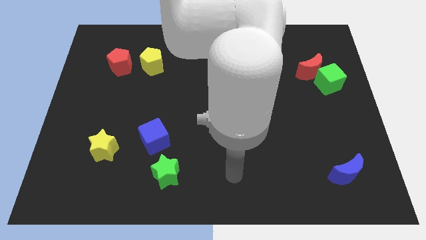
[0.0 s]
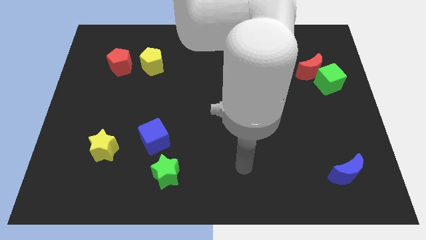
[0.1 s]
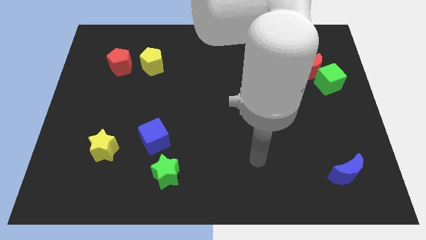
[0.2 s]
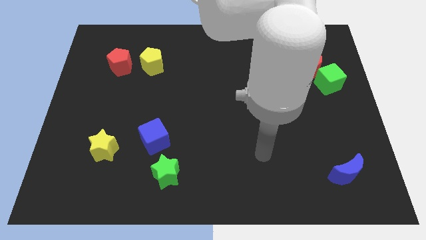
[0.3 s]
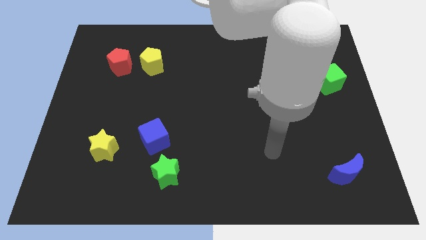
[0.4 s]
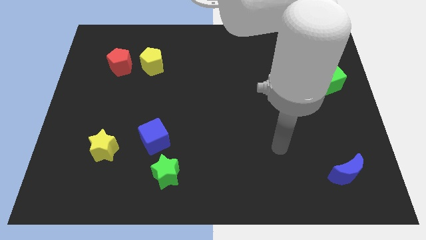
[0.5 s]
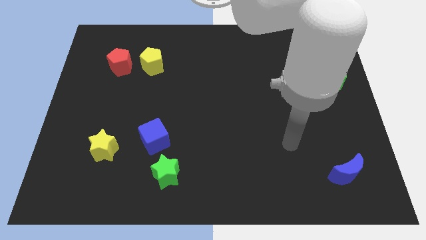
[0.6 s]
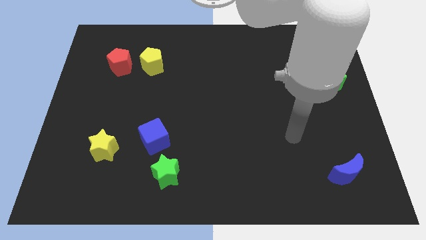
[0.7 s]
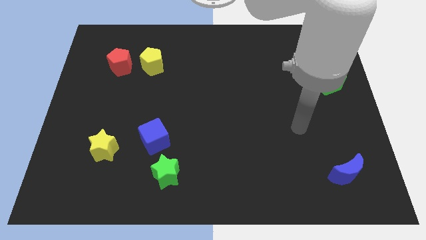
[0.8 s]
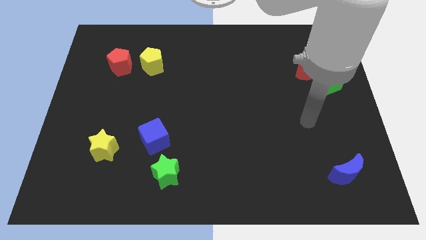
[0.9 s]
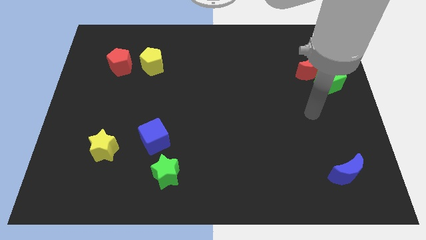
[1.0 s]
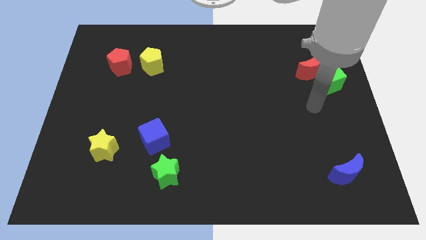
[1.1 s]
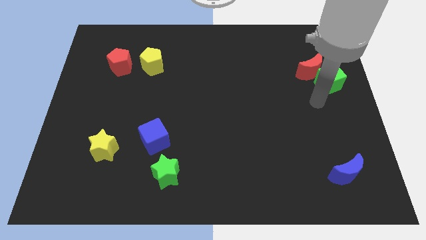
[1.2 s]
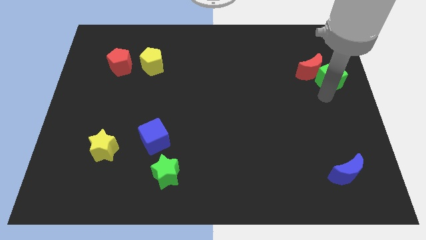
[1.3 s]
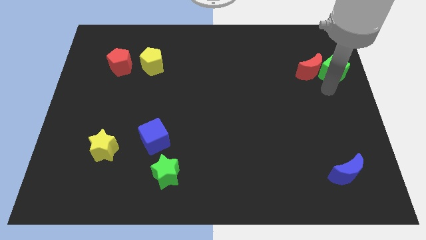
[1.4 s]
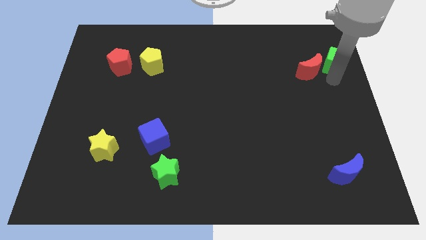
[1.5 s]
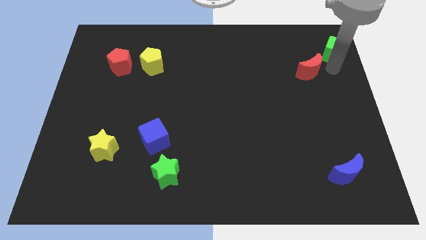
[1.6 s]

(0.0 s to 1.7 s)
pull the red moon apart from the green cube

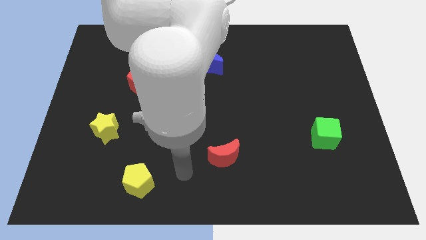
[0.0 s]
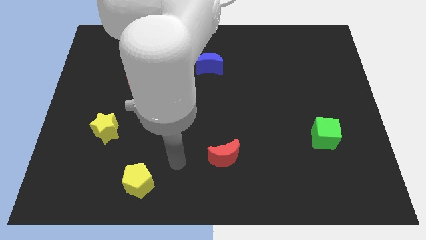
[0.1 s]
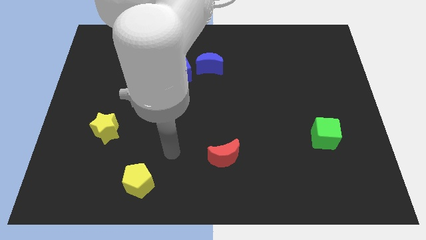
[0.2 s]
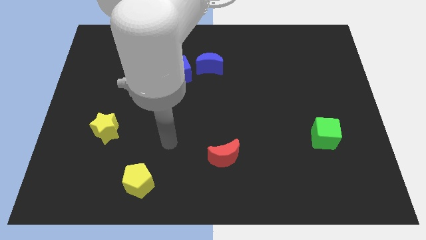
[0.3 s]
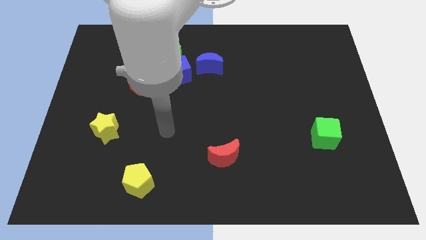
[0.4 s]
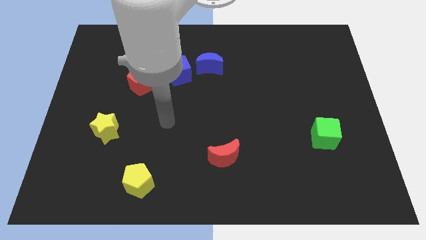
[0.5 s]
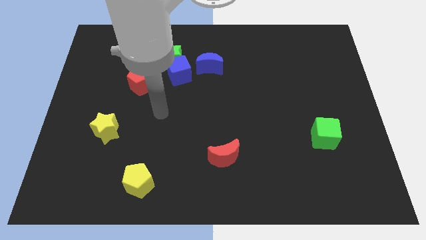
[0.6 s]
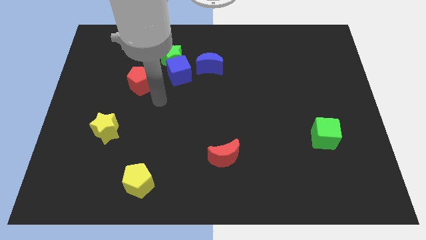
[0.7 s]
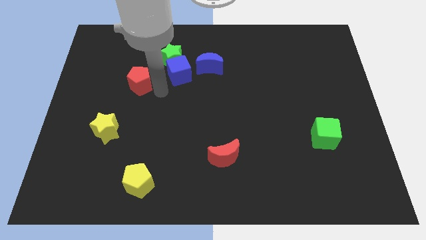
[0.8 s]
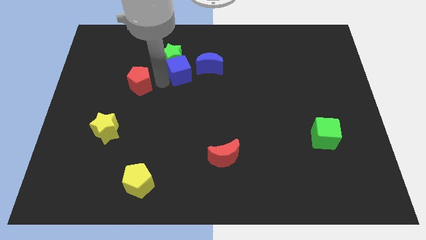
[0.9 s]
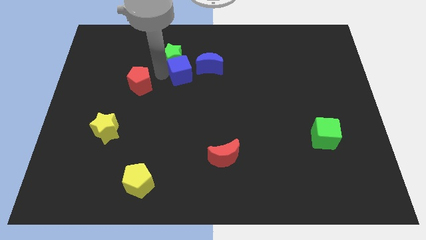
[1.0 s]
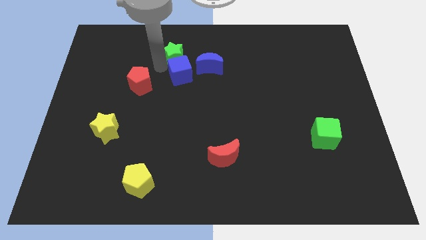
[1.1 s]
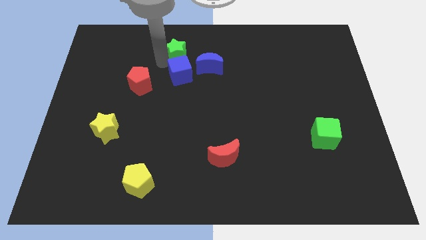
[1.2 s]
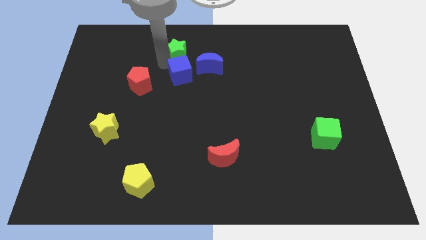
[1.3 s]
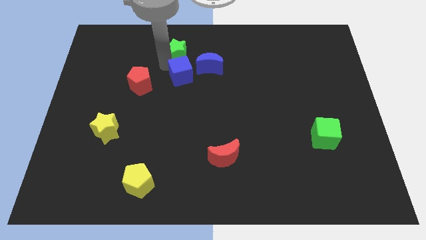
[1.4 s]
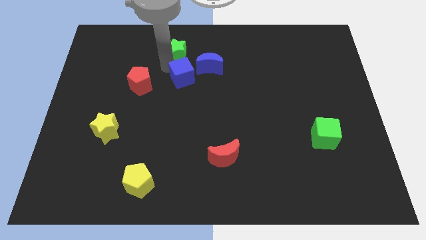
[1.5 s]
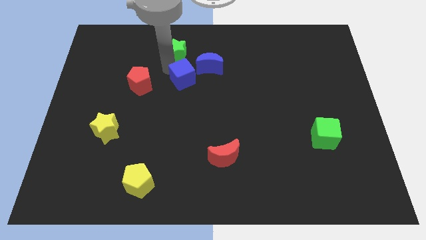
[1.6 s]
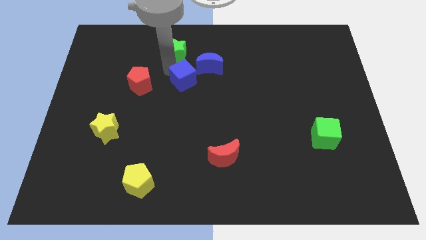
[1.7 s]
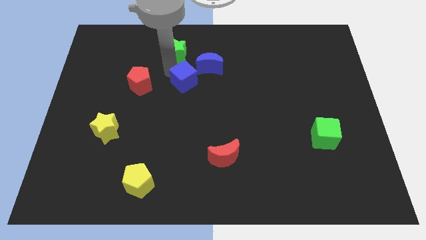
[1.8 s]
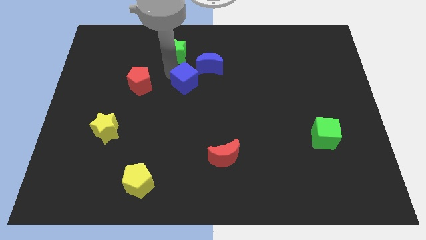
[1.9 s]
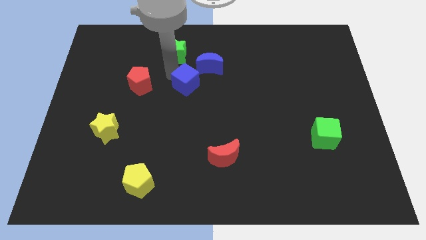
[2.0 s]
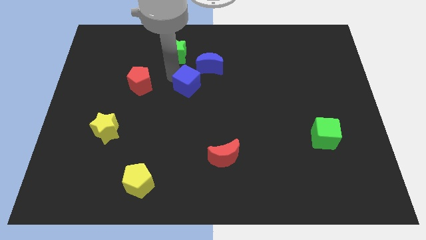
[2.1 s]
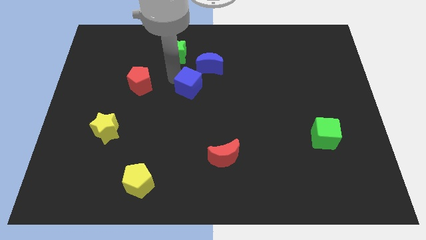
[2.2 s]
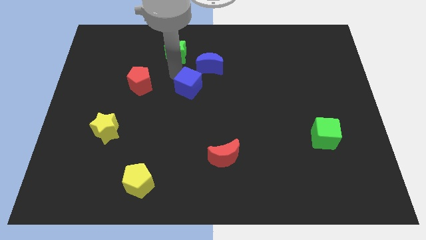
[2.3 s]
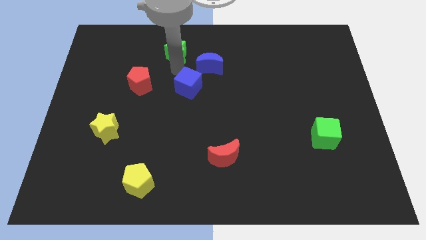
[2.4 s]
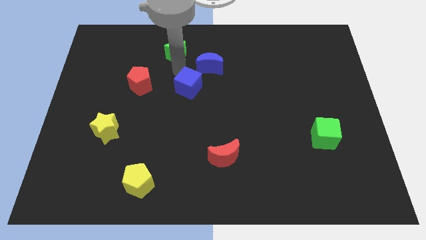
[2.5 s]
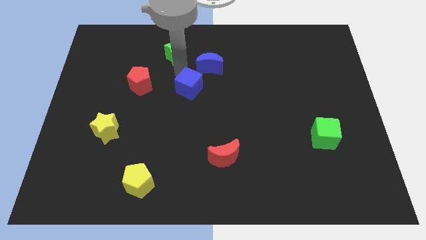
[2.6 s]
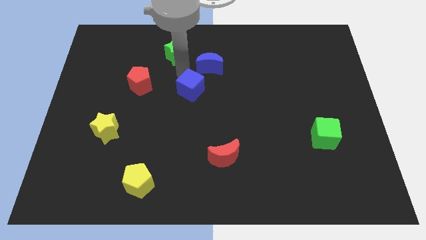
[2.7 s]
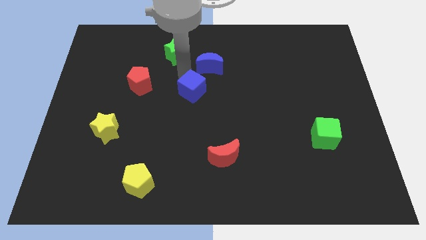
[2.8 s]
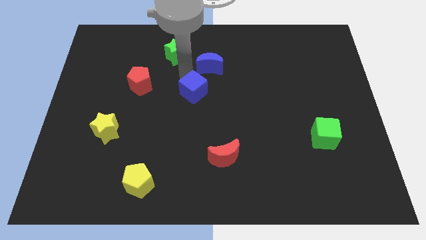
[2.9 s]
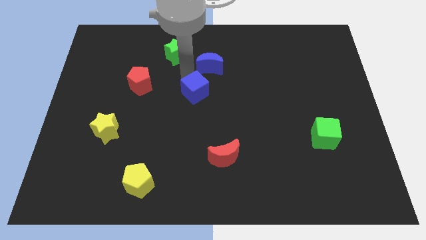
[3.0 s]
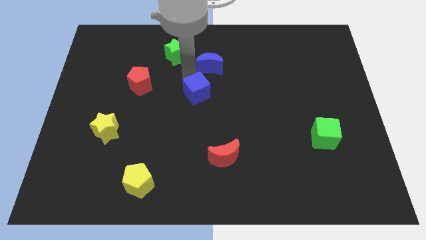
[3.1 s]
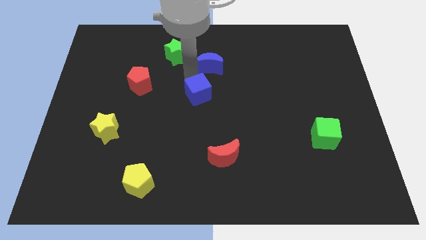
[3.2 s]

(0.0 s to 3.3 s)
move the blue cube away from the green star, blue moon, and red pentagon

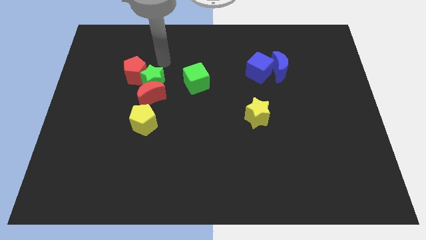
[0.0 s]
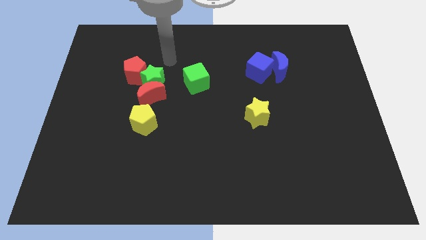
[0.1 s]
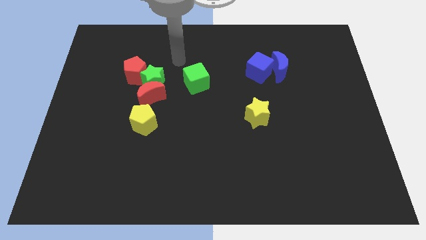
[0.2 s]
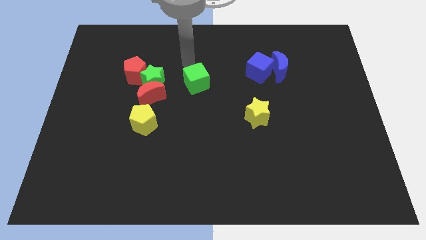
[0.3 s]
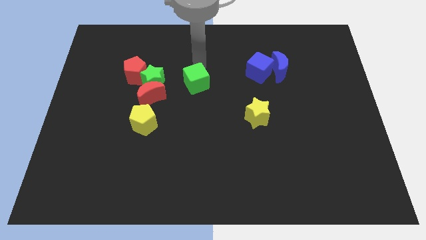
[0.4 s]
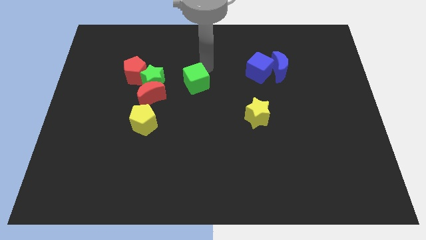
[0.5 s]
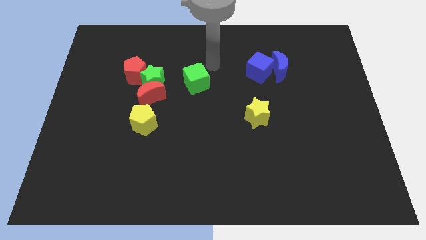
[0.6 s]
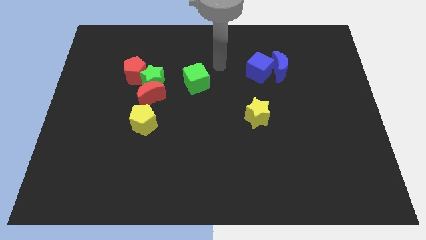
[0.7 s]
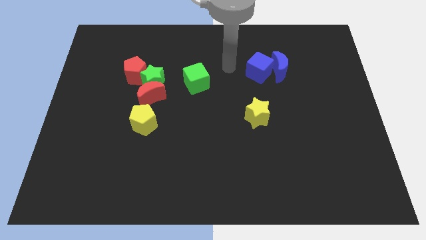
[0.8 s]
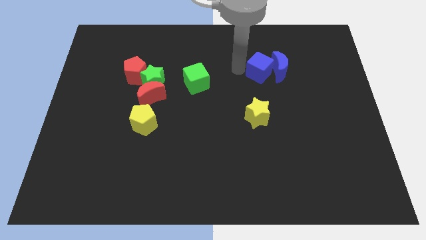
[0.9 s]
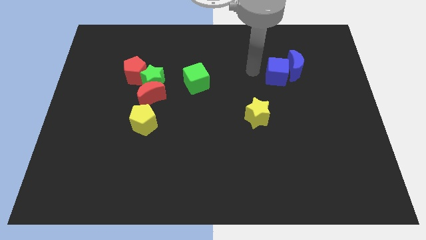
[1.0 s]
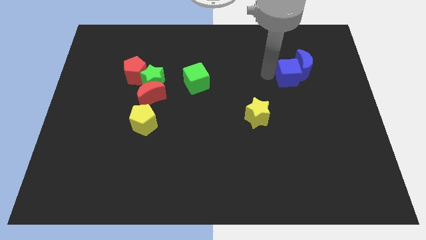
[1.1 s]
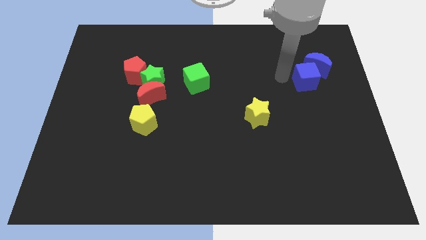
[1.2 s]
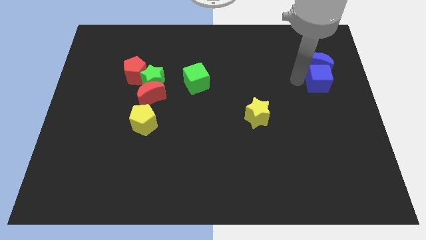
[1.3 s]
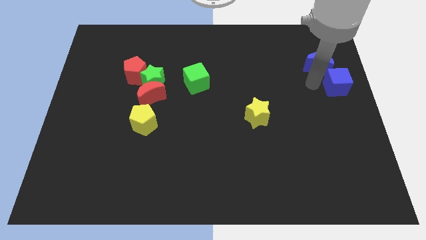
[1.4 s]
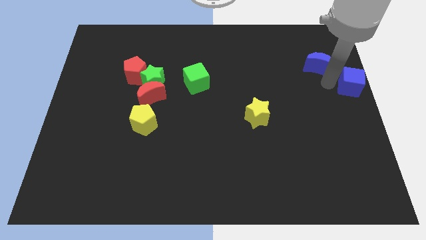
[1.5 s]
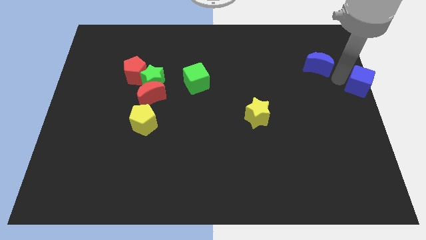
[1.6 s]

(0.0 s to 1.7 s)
separate the blue moon from the blue cube

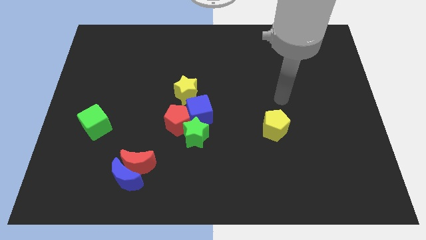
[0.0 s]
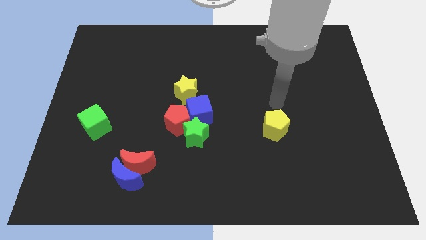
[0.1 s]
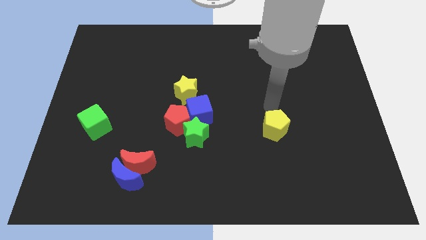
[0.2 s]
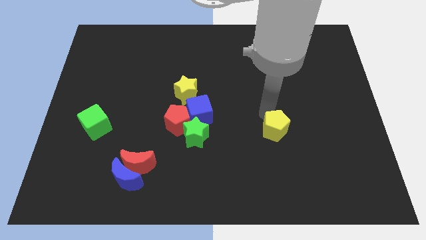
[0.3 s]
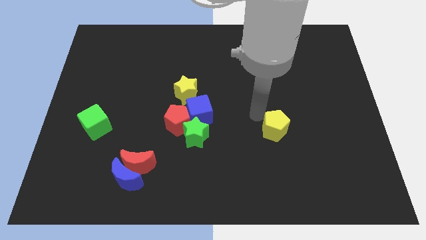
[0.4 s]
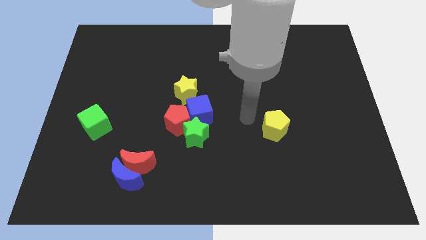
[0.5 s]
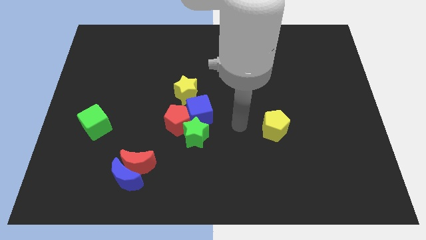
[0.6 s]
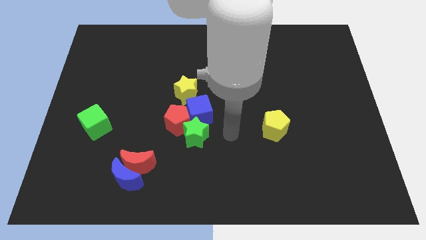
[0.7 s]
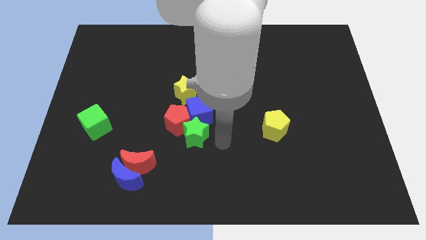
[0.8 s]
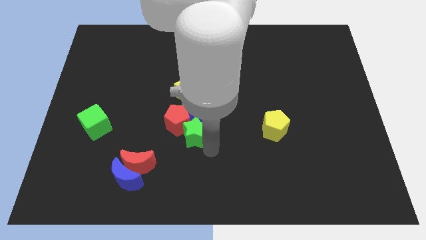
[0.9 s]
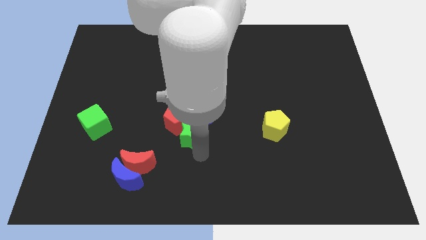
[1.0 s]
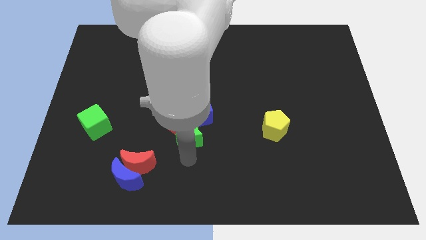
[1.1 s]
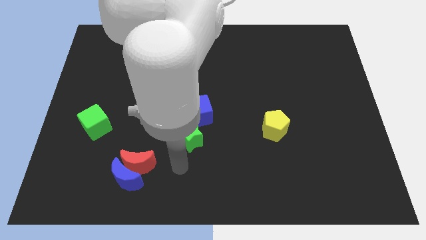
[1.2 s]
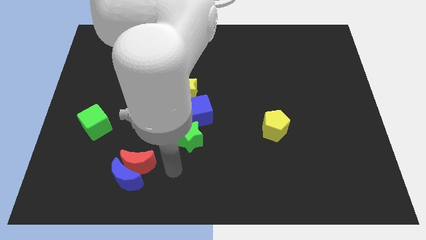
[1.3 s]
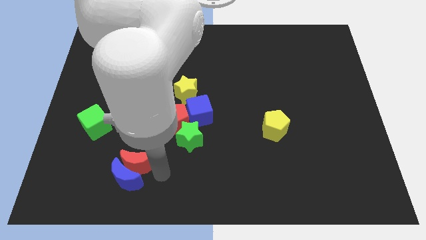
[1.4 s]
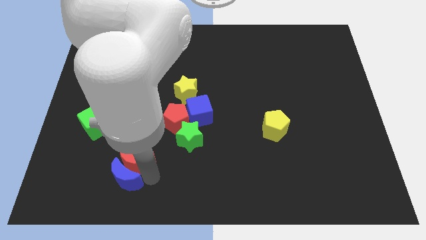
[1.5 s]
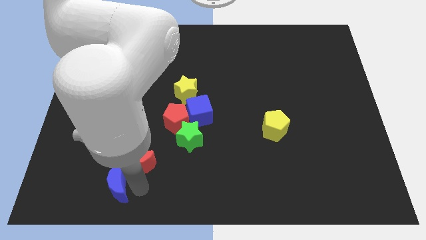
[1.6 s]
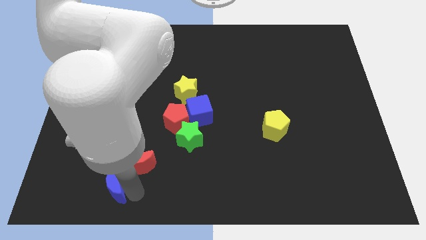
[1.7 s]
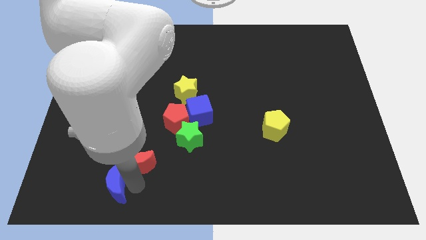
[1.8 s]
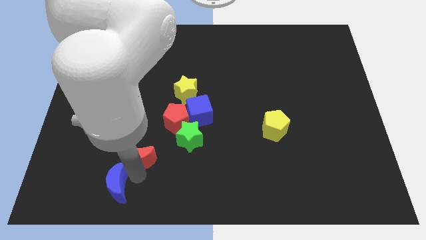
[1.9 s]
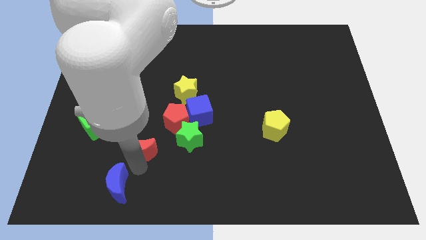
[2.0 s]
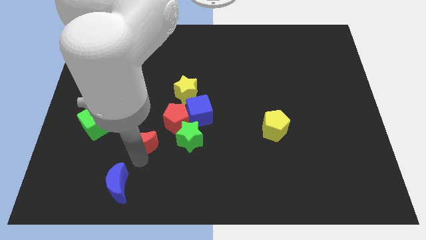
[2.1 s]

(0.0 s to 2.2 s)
pull the red moon apart from the blue moon

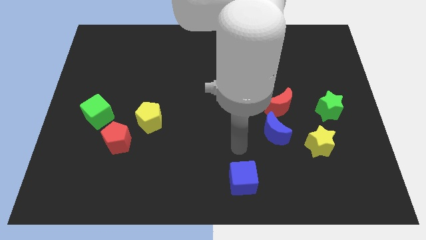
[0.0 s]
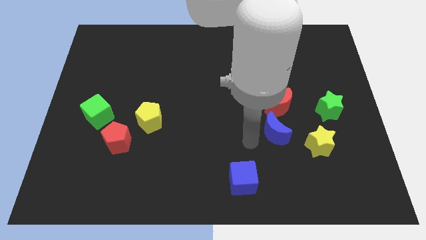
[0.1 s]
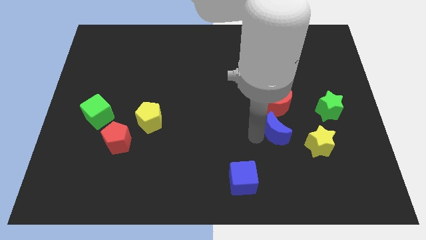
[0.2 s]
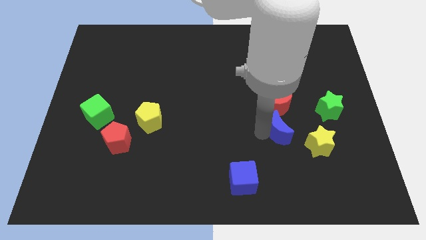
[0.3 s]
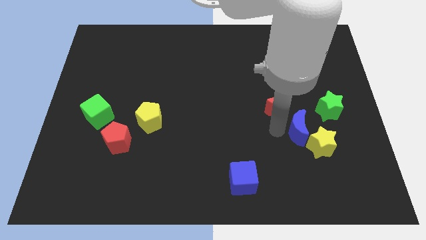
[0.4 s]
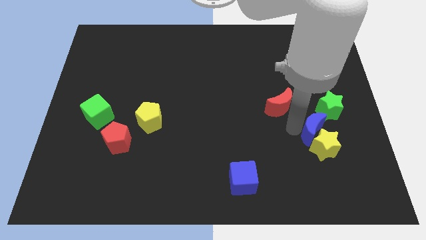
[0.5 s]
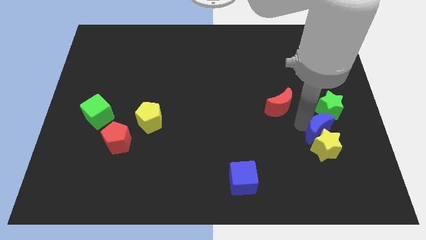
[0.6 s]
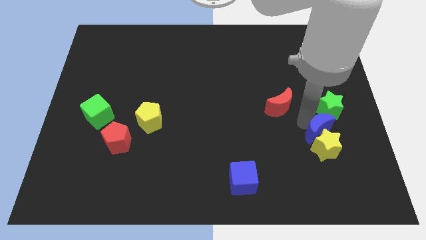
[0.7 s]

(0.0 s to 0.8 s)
move the red moon away from the blue moon
